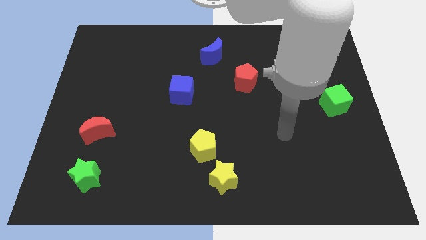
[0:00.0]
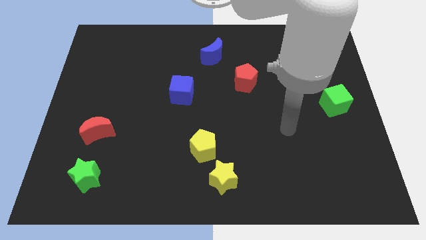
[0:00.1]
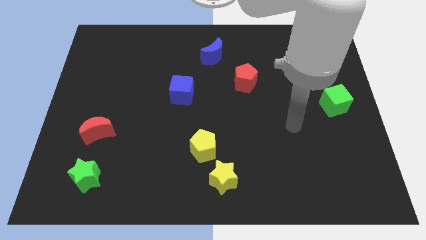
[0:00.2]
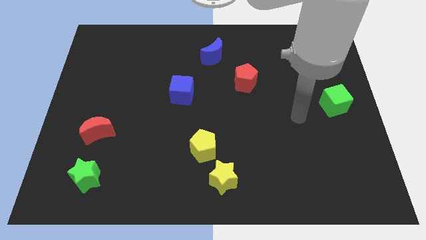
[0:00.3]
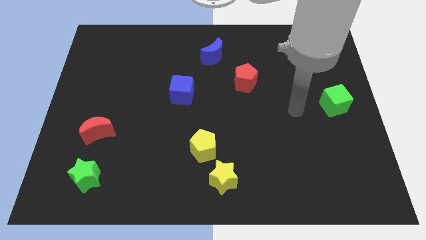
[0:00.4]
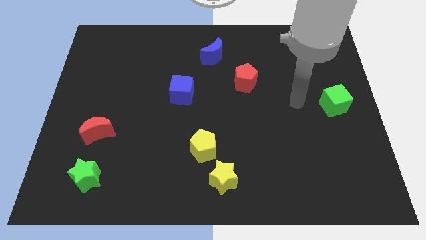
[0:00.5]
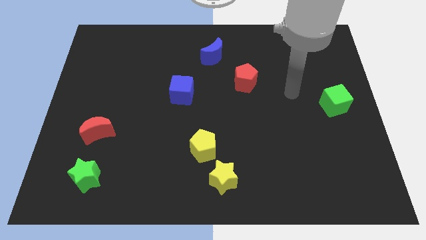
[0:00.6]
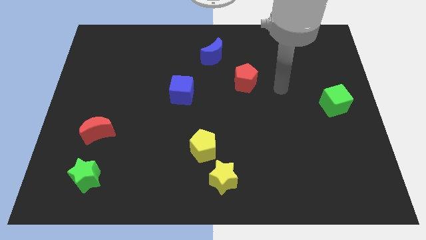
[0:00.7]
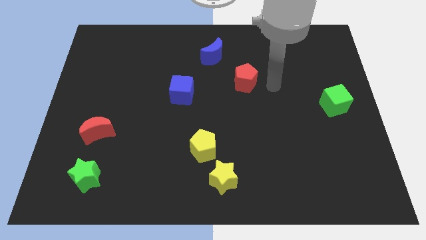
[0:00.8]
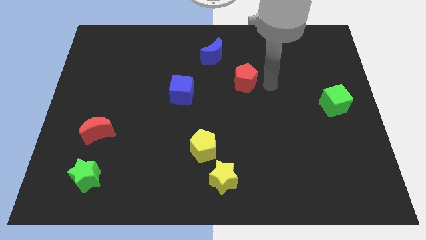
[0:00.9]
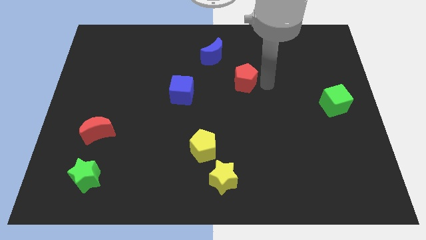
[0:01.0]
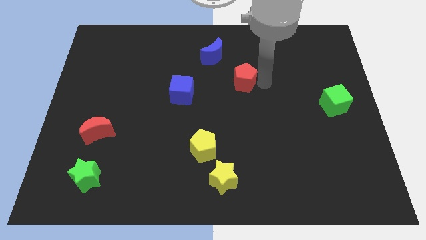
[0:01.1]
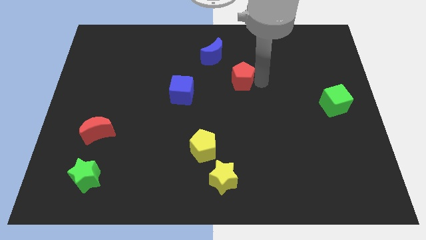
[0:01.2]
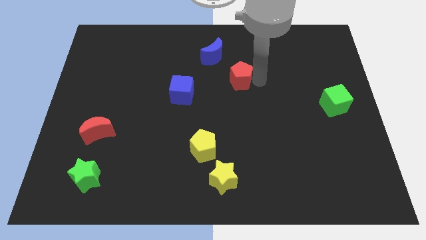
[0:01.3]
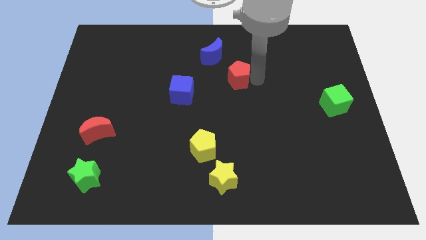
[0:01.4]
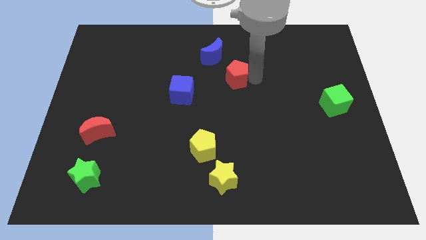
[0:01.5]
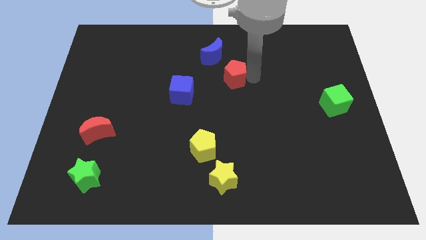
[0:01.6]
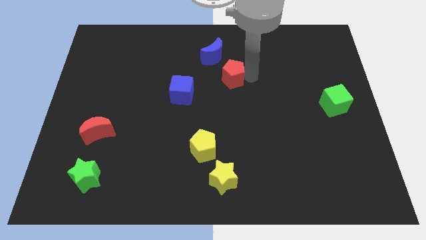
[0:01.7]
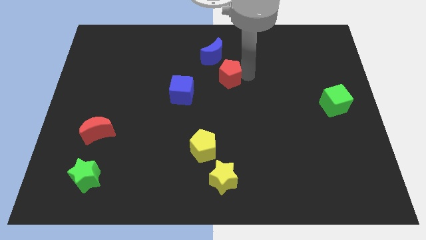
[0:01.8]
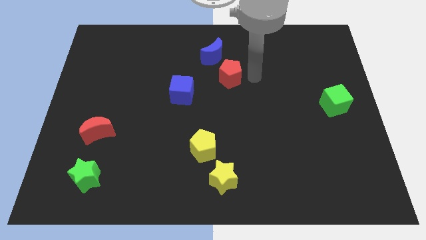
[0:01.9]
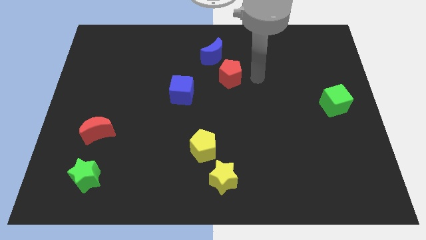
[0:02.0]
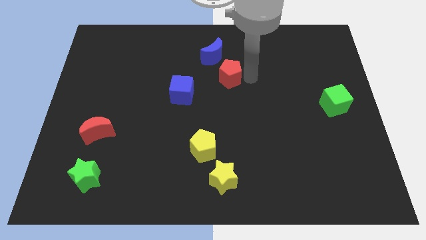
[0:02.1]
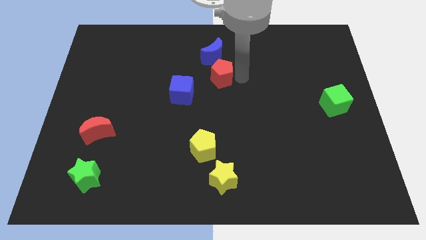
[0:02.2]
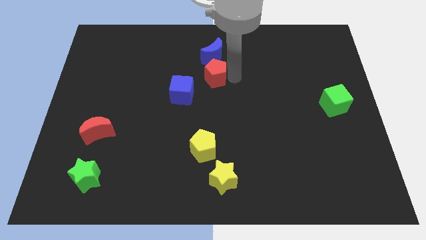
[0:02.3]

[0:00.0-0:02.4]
slide the red pentagon somewhat left

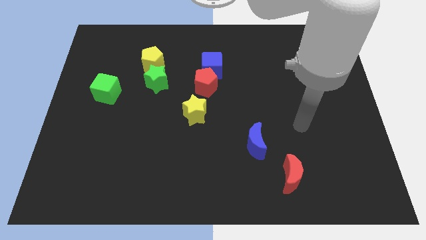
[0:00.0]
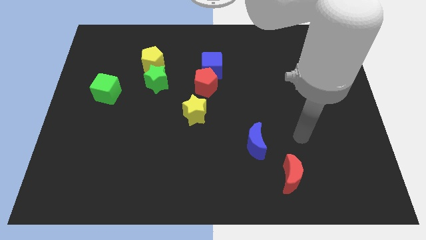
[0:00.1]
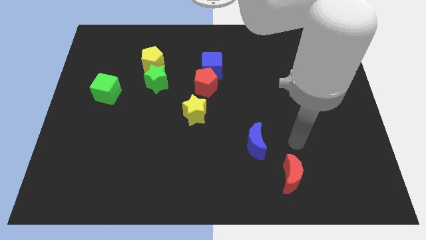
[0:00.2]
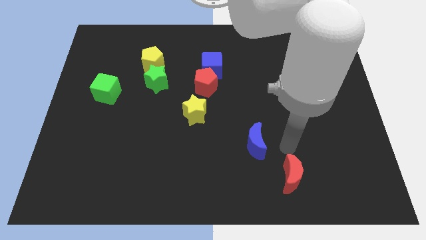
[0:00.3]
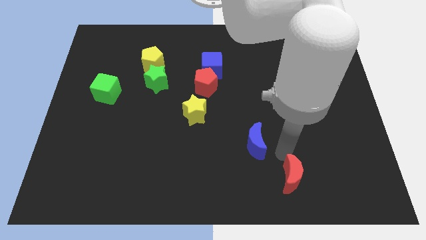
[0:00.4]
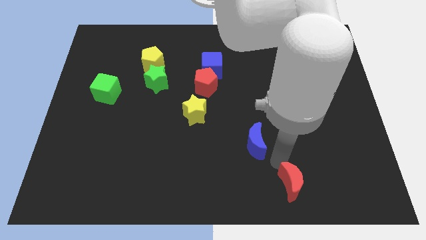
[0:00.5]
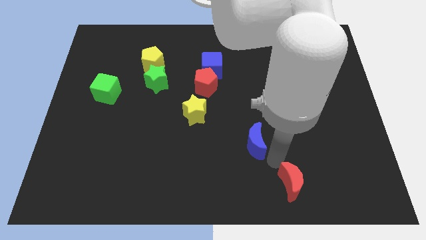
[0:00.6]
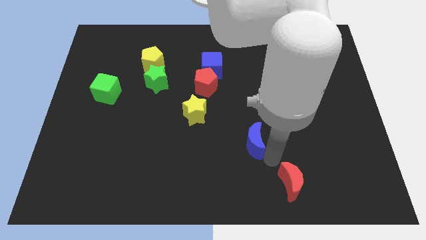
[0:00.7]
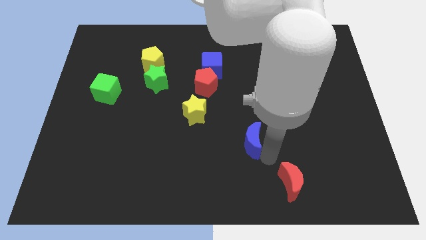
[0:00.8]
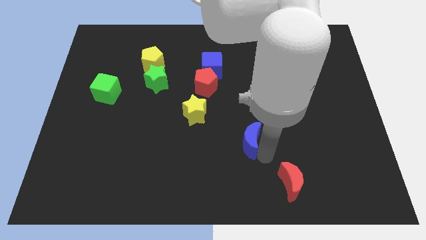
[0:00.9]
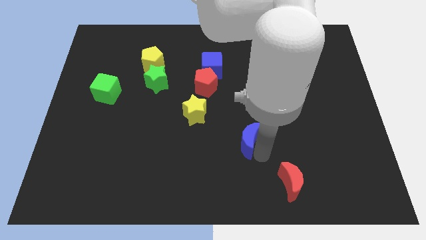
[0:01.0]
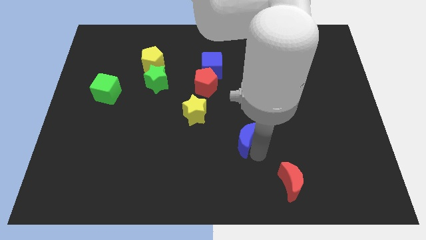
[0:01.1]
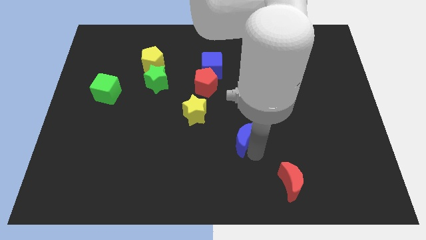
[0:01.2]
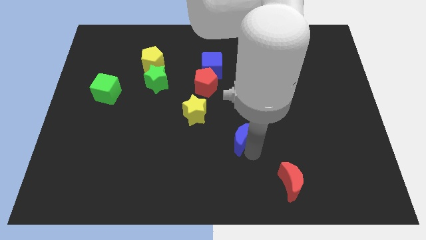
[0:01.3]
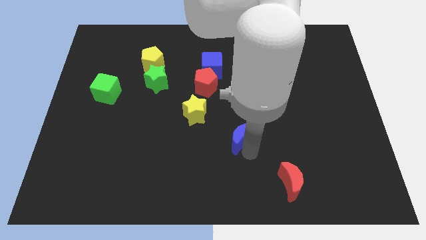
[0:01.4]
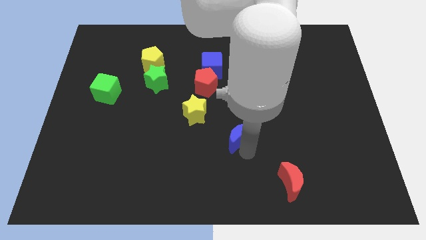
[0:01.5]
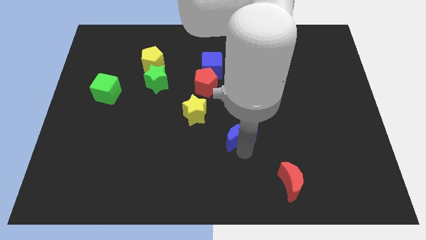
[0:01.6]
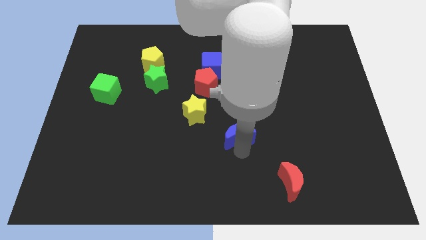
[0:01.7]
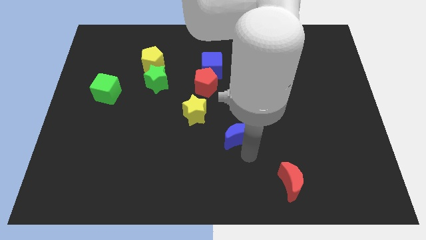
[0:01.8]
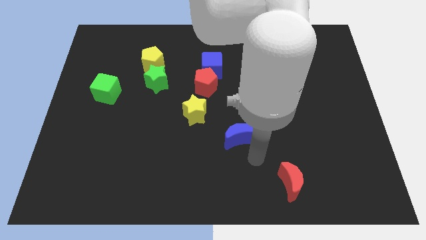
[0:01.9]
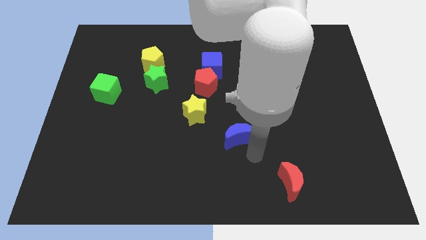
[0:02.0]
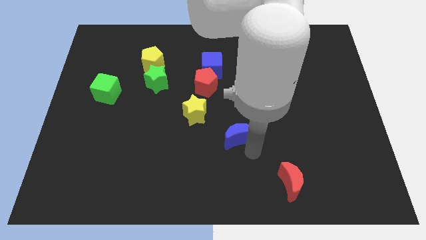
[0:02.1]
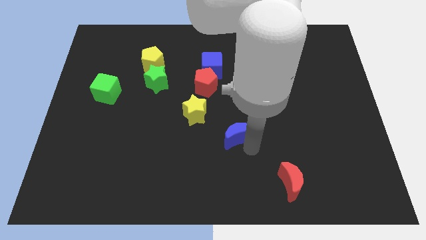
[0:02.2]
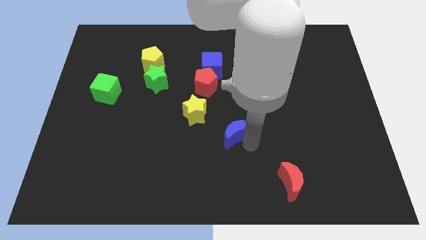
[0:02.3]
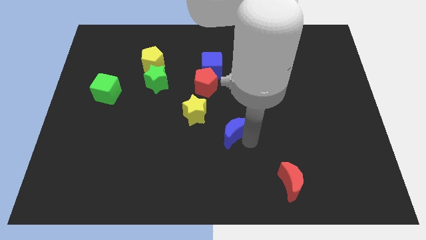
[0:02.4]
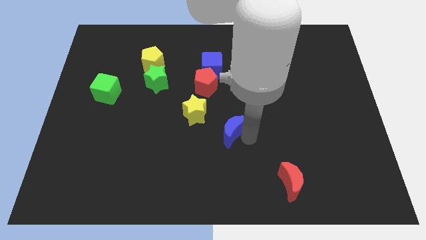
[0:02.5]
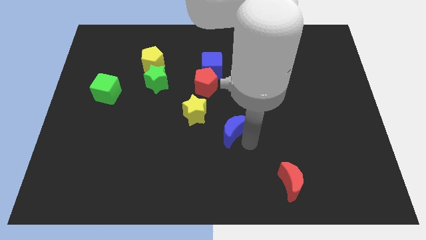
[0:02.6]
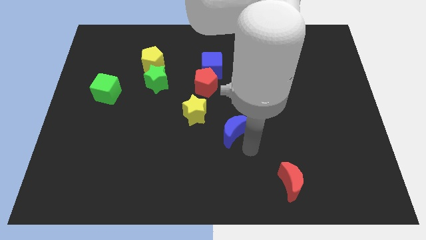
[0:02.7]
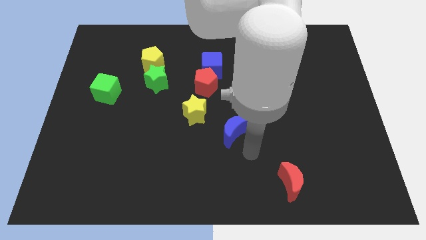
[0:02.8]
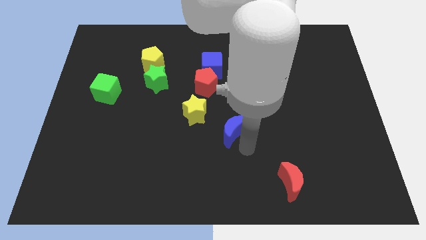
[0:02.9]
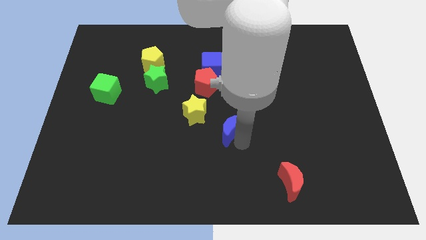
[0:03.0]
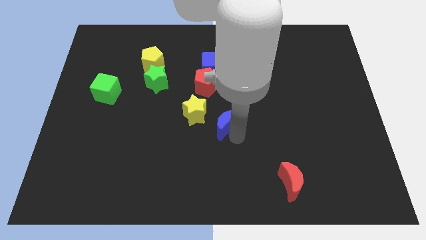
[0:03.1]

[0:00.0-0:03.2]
slide the blue moon up and to the left diagonally a little bit

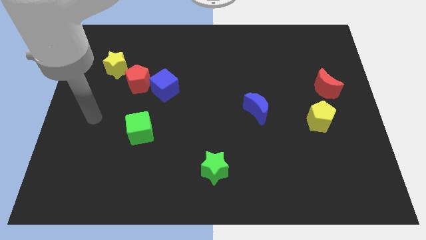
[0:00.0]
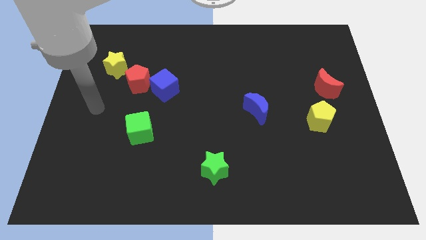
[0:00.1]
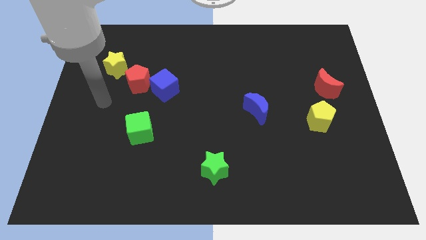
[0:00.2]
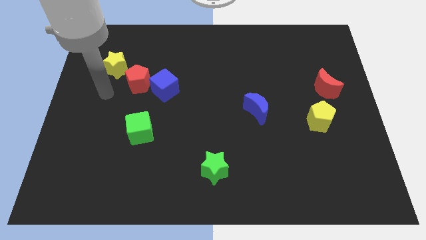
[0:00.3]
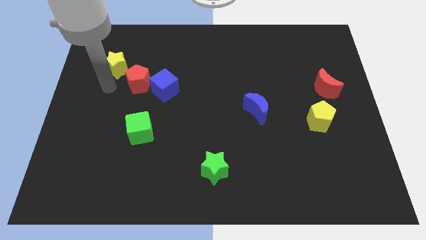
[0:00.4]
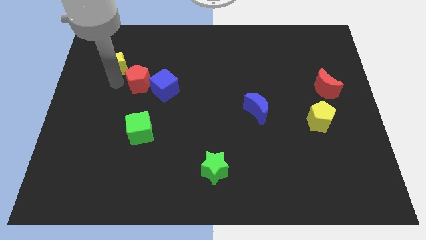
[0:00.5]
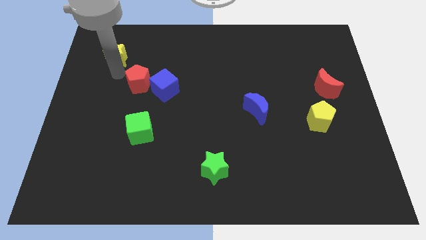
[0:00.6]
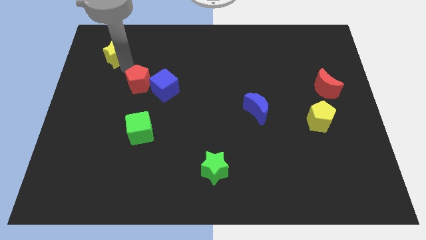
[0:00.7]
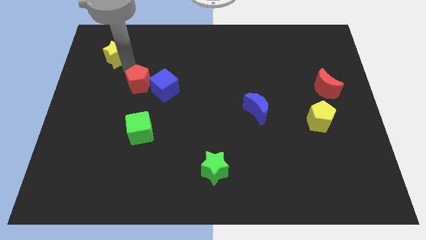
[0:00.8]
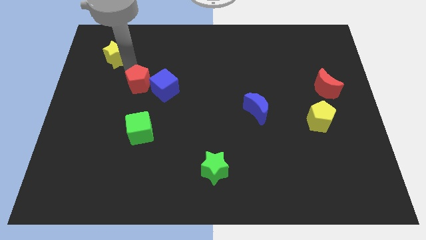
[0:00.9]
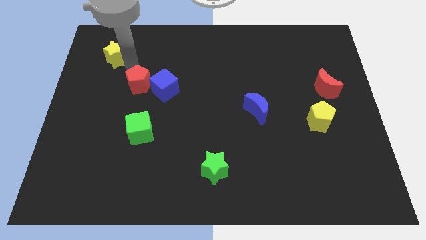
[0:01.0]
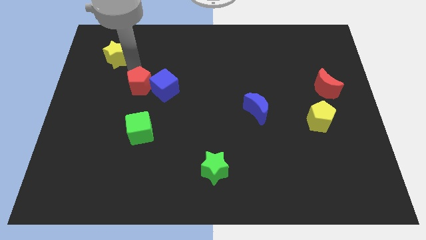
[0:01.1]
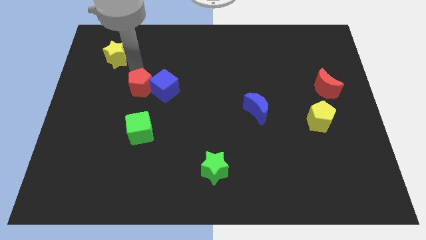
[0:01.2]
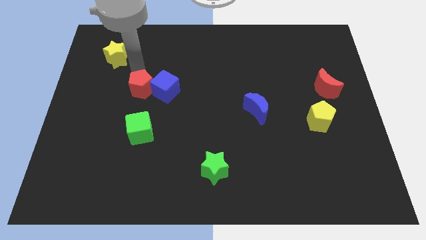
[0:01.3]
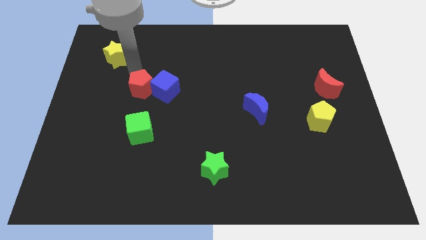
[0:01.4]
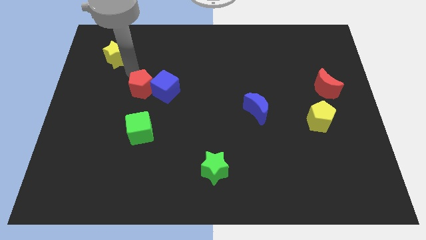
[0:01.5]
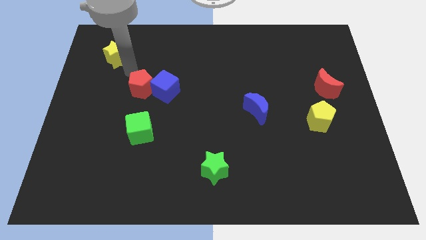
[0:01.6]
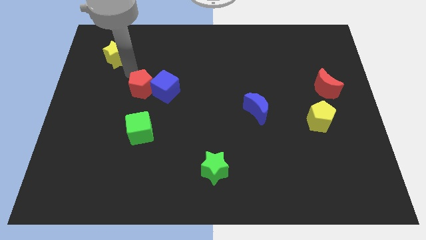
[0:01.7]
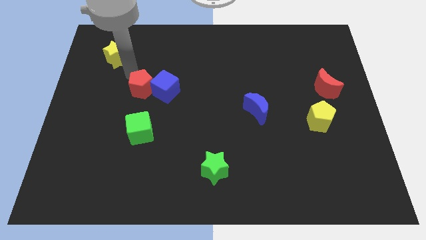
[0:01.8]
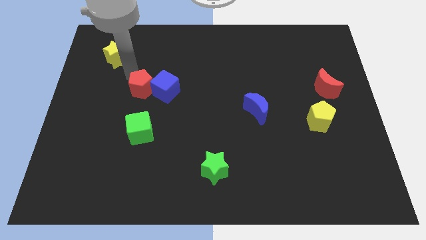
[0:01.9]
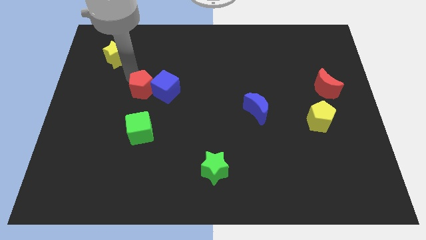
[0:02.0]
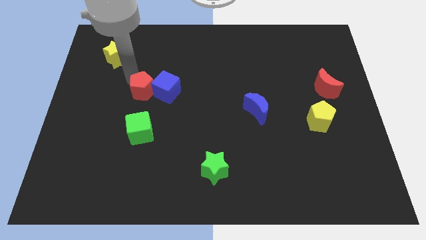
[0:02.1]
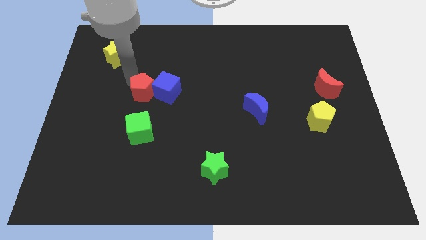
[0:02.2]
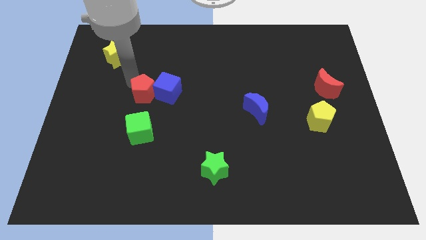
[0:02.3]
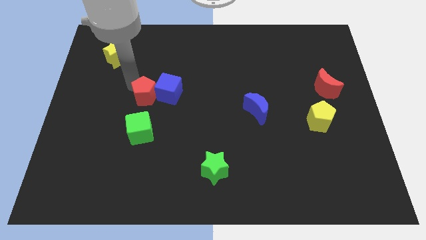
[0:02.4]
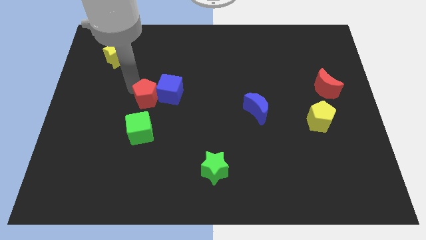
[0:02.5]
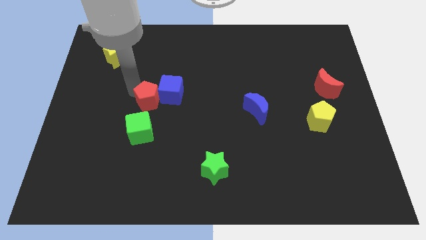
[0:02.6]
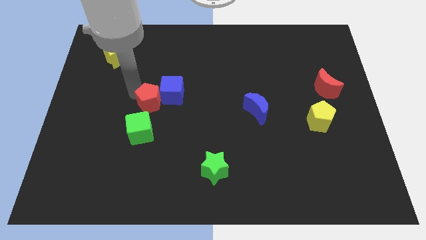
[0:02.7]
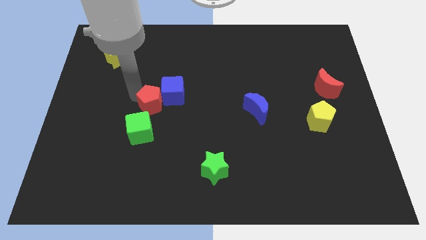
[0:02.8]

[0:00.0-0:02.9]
slightly slide the red pentagon downwards and to the right
